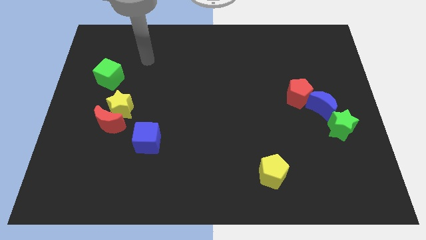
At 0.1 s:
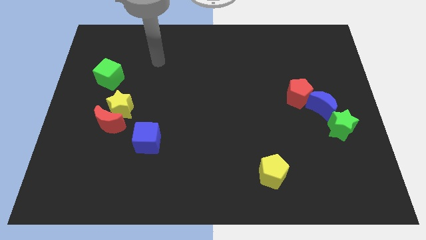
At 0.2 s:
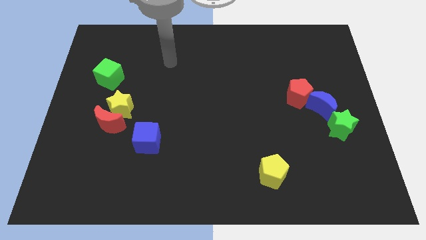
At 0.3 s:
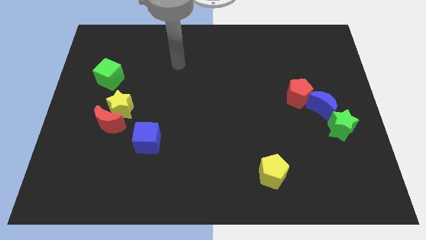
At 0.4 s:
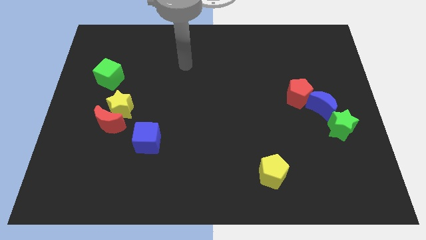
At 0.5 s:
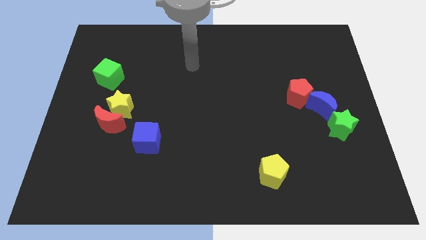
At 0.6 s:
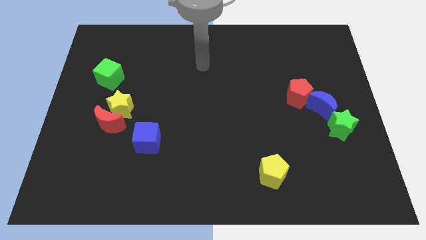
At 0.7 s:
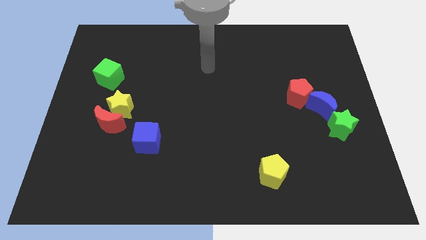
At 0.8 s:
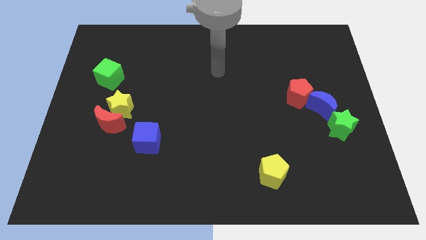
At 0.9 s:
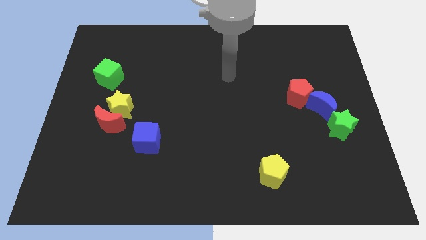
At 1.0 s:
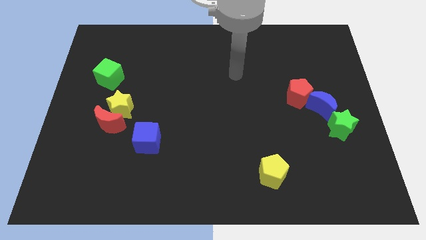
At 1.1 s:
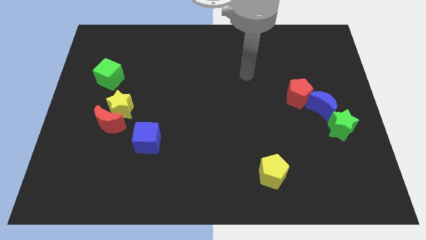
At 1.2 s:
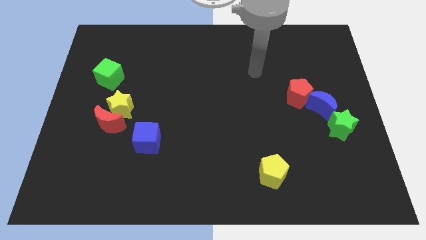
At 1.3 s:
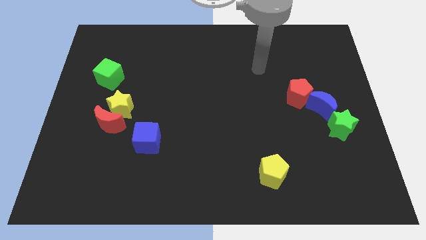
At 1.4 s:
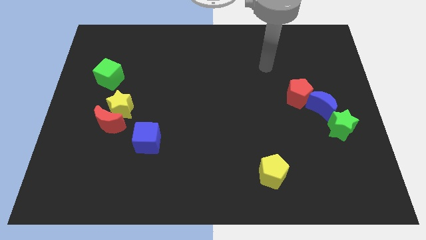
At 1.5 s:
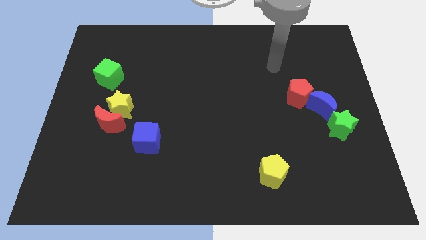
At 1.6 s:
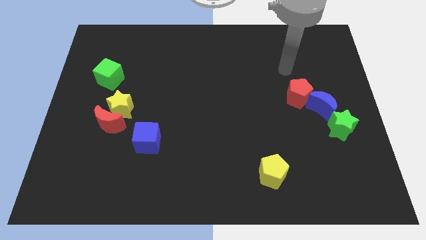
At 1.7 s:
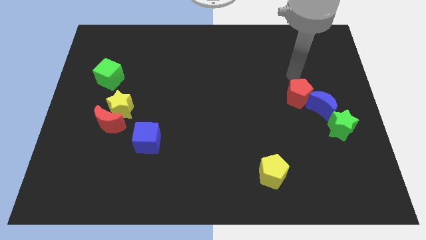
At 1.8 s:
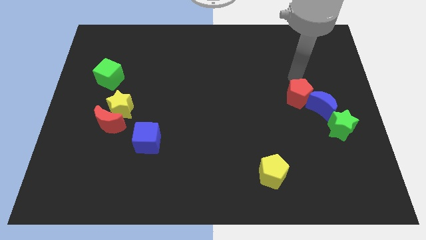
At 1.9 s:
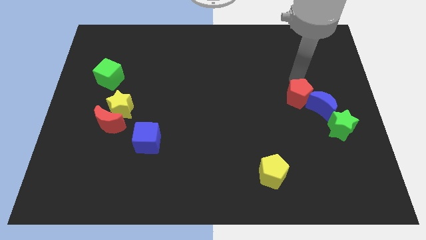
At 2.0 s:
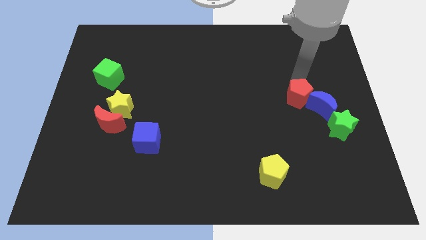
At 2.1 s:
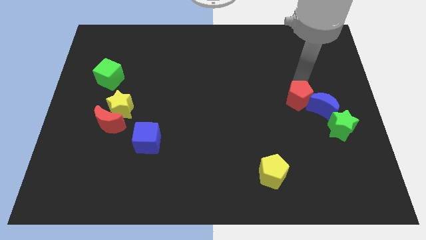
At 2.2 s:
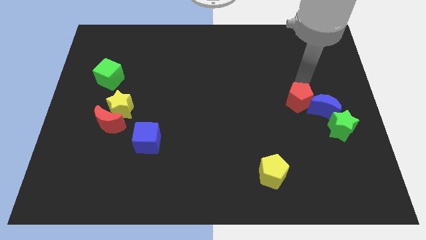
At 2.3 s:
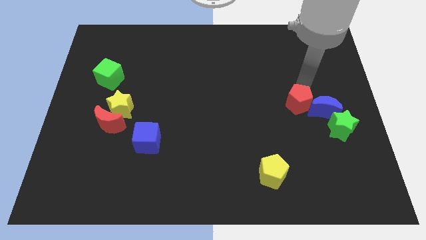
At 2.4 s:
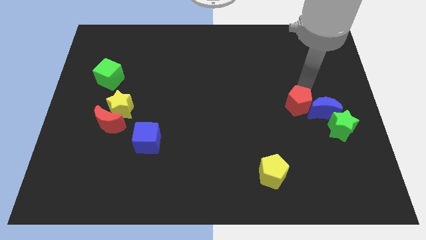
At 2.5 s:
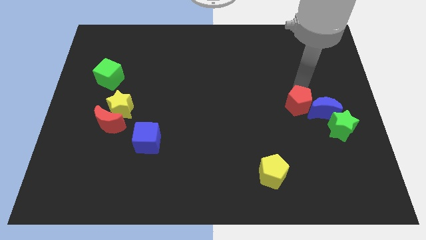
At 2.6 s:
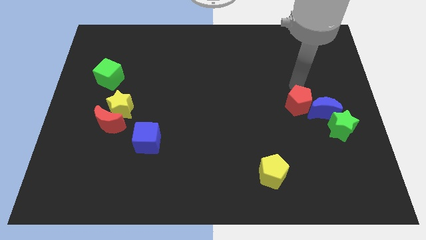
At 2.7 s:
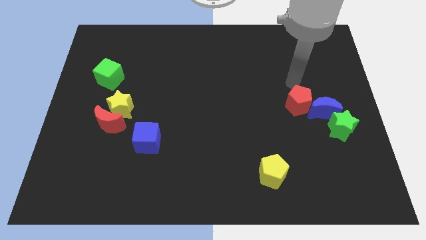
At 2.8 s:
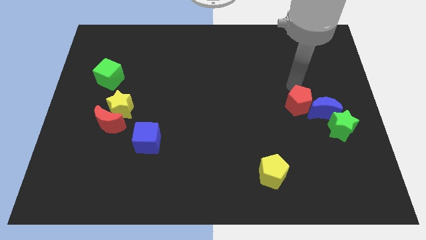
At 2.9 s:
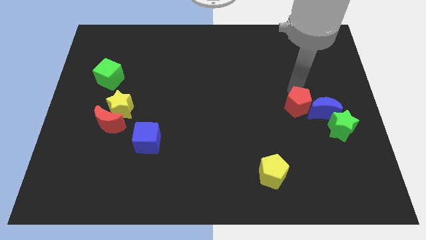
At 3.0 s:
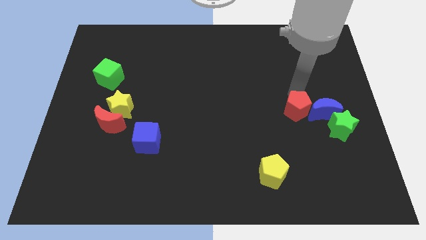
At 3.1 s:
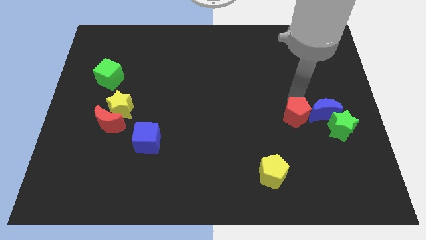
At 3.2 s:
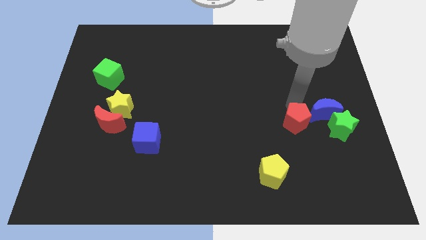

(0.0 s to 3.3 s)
slide the red pentagon down a bit

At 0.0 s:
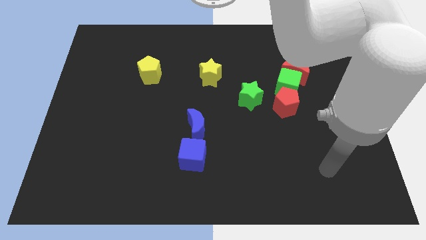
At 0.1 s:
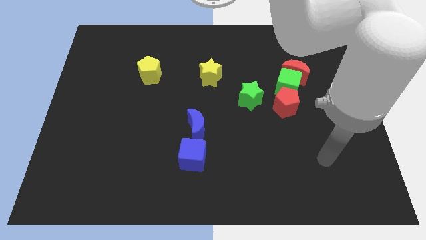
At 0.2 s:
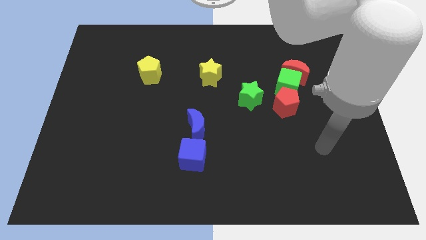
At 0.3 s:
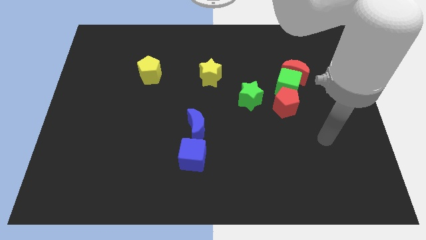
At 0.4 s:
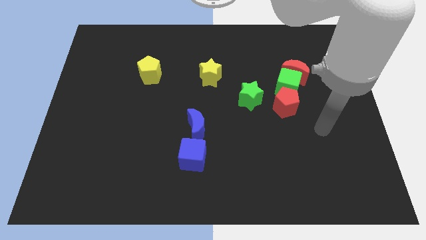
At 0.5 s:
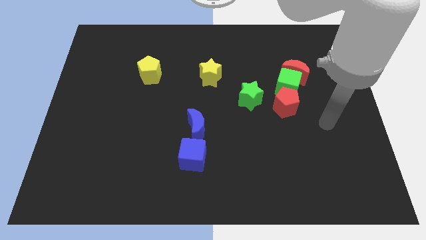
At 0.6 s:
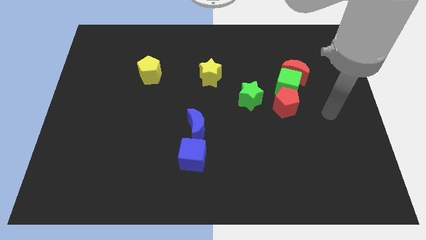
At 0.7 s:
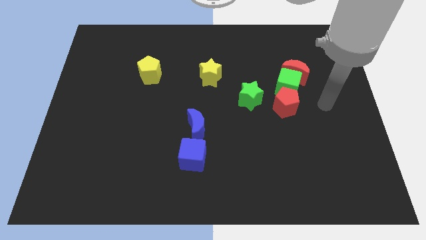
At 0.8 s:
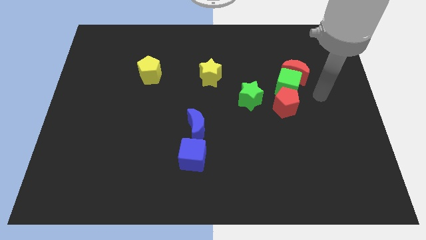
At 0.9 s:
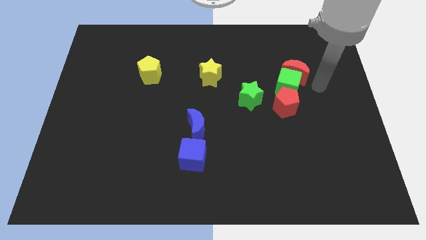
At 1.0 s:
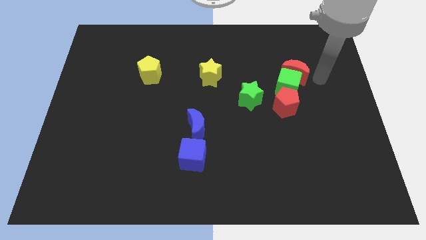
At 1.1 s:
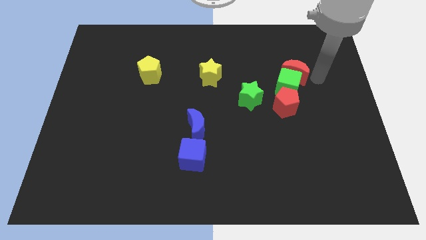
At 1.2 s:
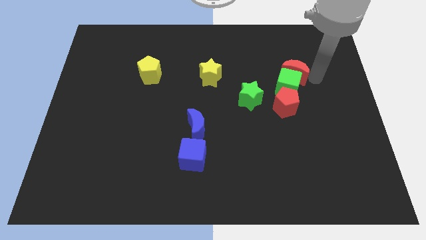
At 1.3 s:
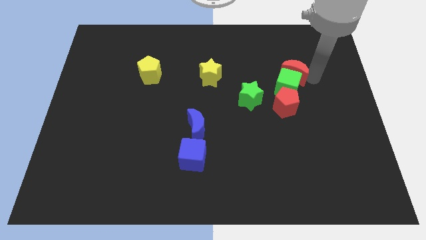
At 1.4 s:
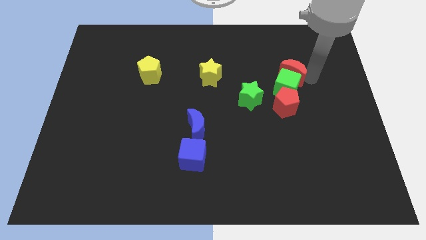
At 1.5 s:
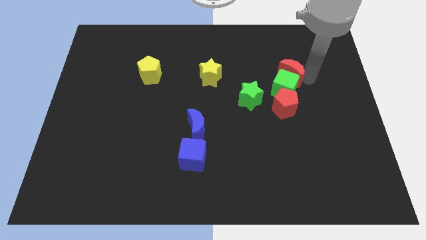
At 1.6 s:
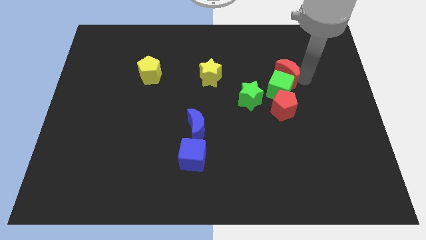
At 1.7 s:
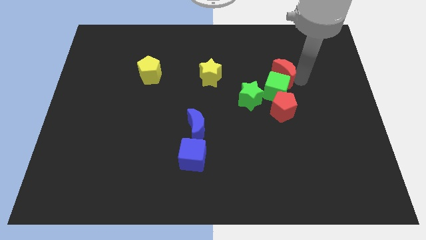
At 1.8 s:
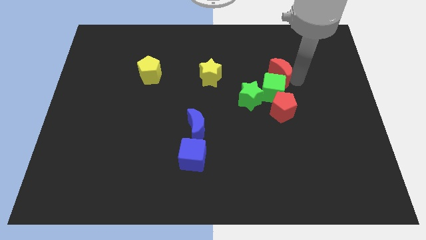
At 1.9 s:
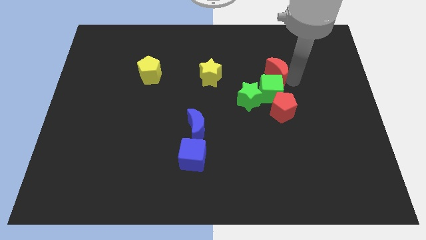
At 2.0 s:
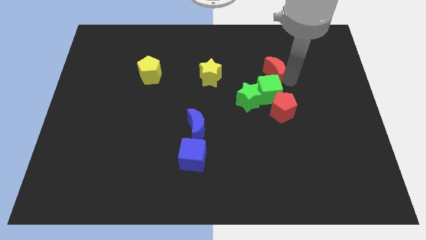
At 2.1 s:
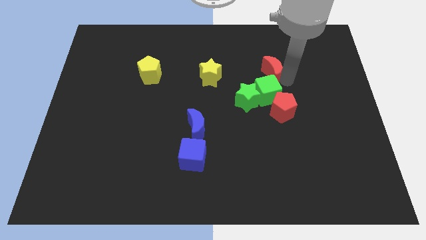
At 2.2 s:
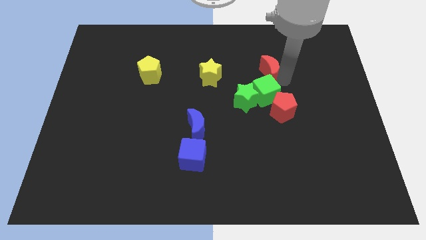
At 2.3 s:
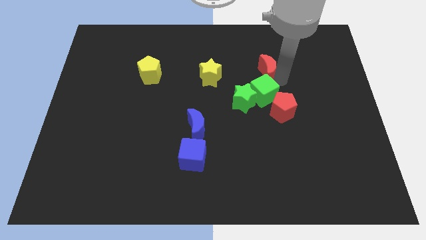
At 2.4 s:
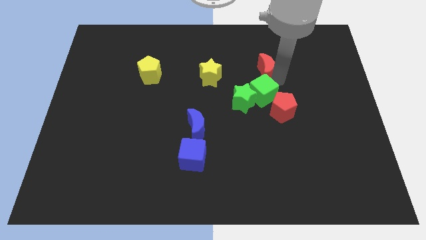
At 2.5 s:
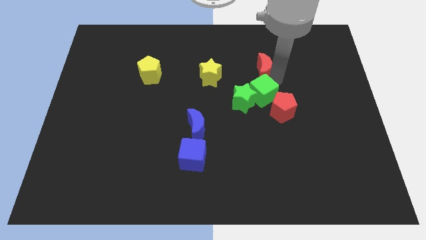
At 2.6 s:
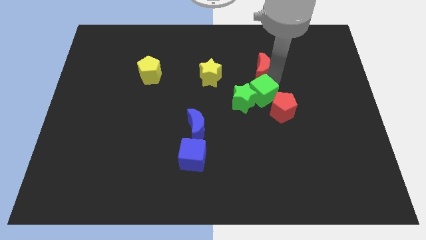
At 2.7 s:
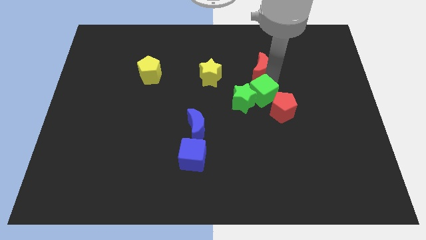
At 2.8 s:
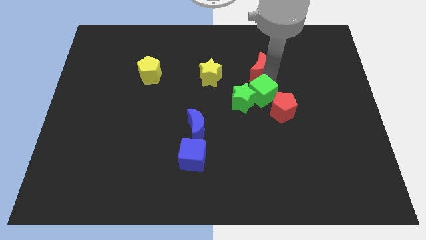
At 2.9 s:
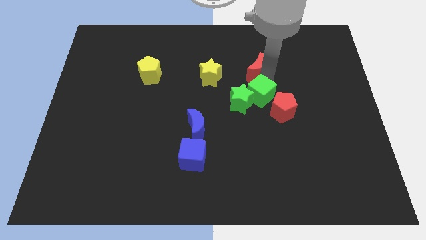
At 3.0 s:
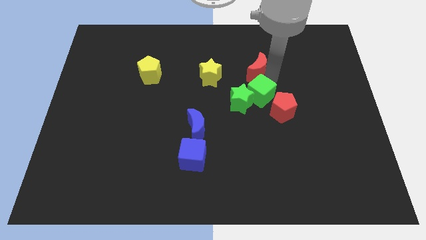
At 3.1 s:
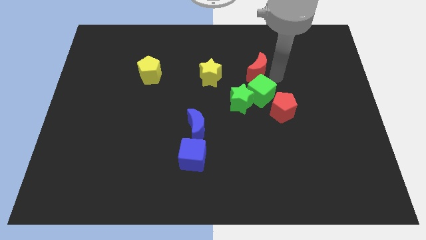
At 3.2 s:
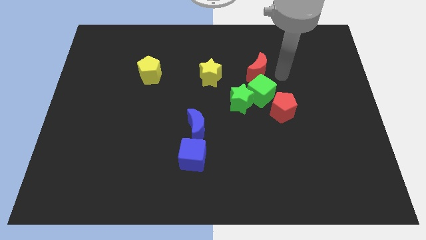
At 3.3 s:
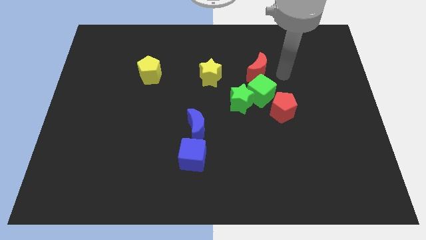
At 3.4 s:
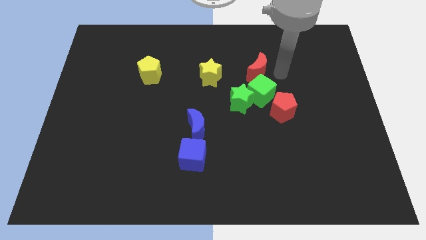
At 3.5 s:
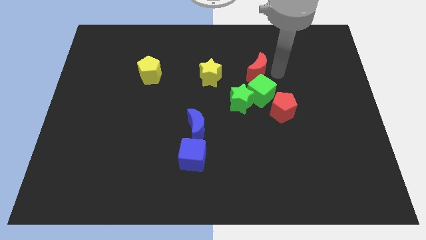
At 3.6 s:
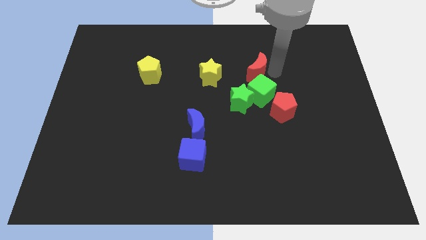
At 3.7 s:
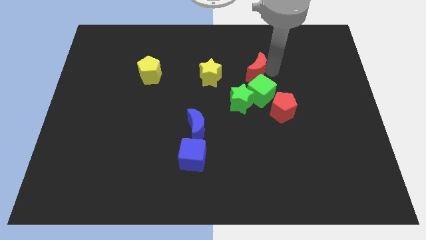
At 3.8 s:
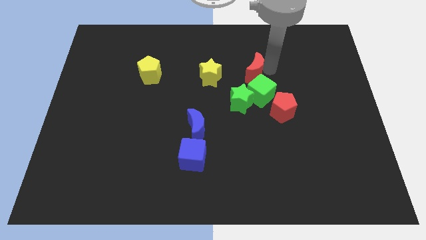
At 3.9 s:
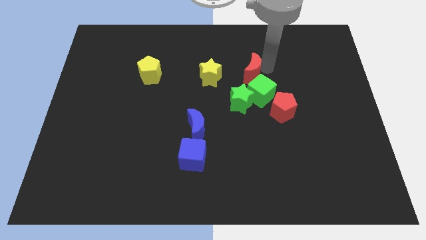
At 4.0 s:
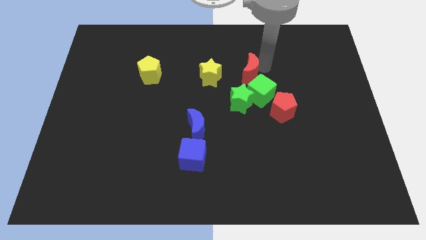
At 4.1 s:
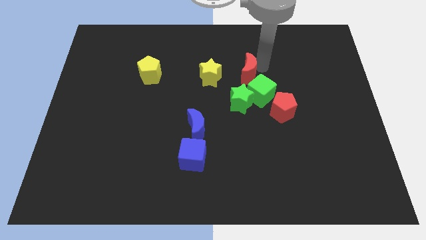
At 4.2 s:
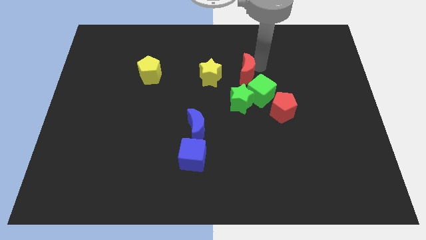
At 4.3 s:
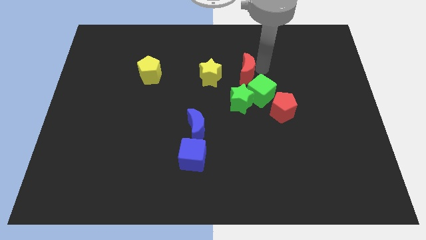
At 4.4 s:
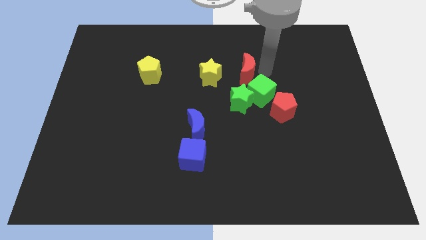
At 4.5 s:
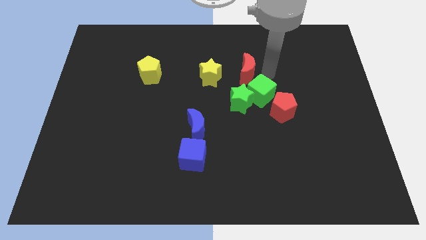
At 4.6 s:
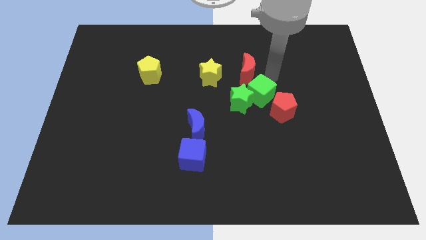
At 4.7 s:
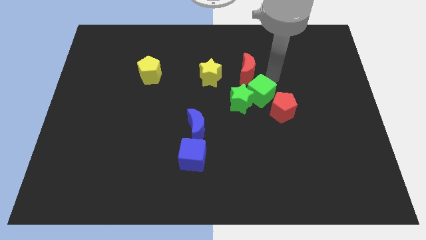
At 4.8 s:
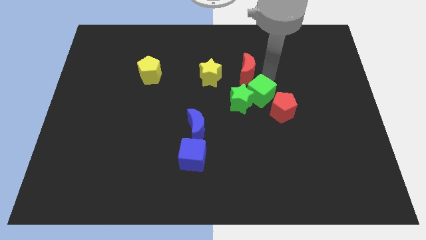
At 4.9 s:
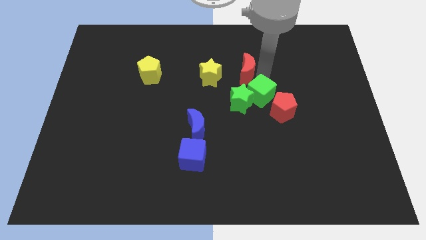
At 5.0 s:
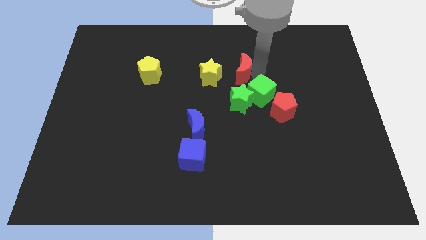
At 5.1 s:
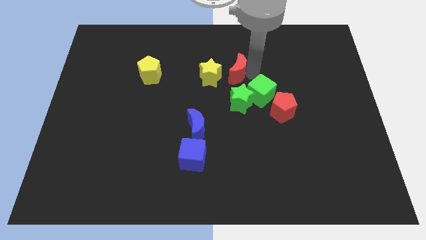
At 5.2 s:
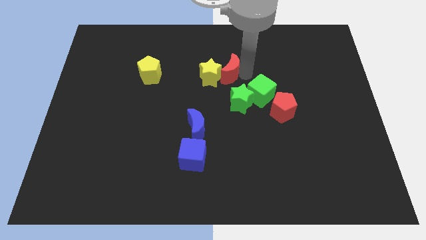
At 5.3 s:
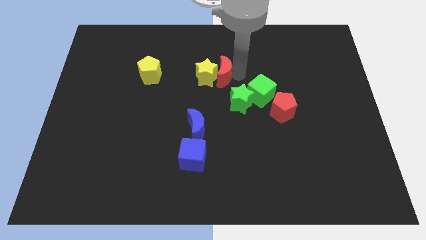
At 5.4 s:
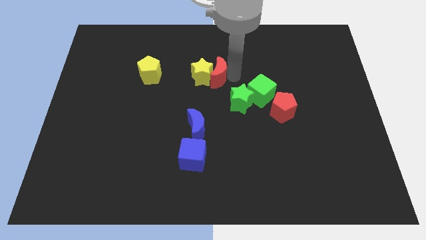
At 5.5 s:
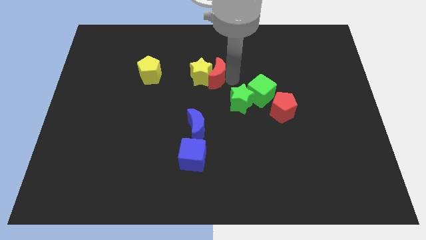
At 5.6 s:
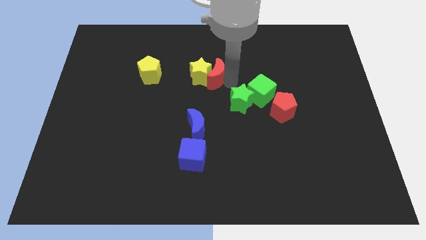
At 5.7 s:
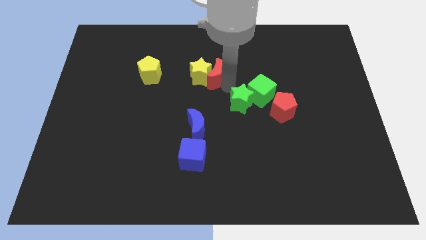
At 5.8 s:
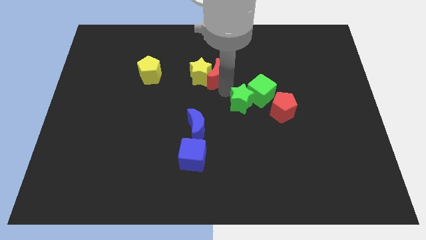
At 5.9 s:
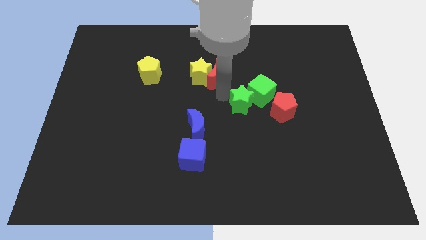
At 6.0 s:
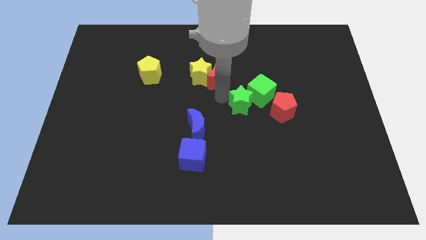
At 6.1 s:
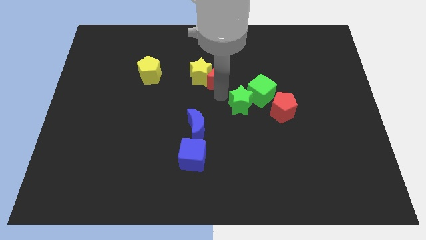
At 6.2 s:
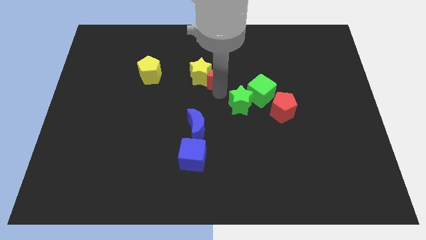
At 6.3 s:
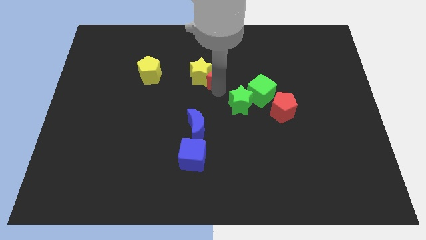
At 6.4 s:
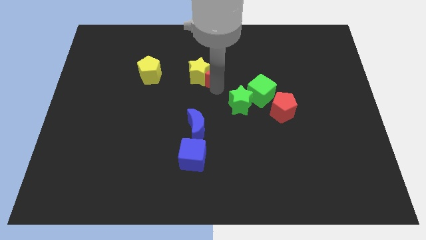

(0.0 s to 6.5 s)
slide the red moon to the left
